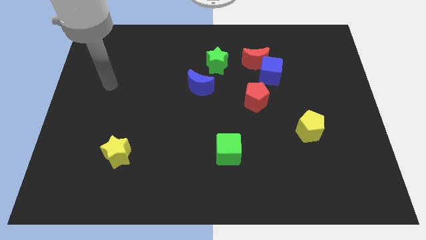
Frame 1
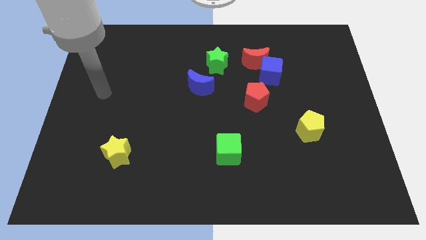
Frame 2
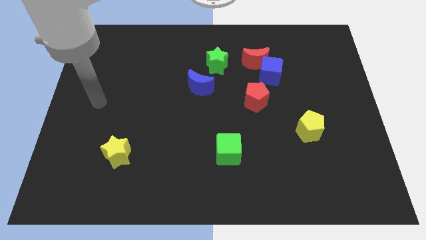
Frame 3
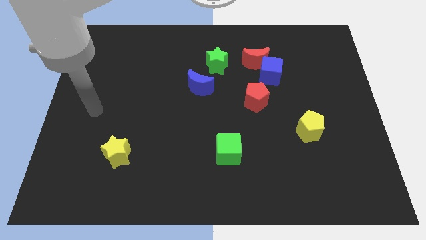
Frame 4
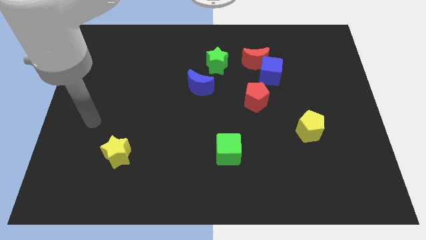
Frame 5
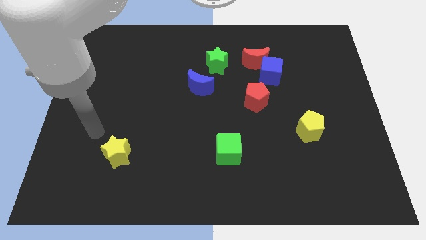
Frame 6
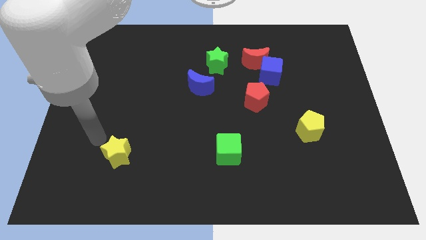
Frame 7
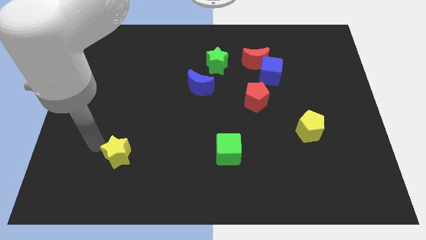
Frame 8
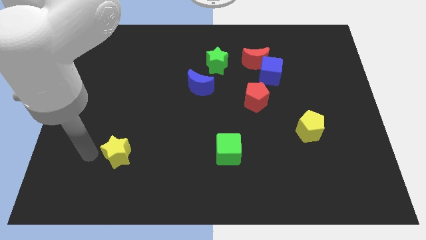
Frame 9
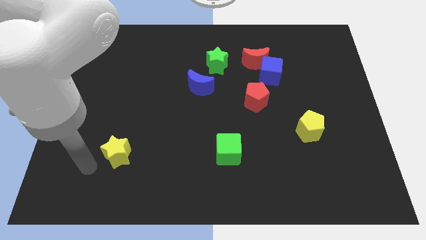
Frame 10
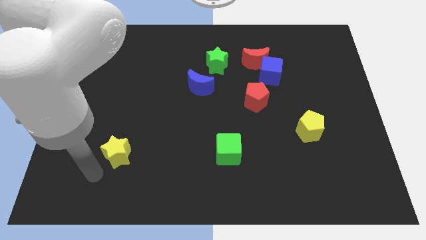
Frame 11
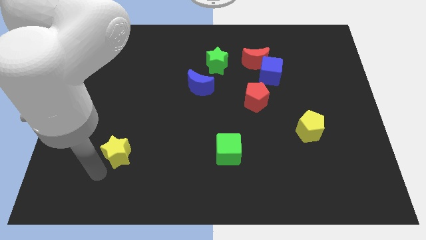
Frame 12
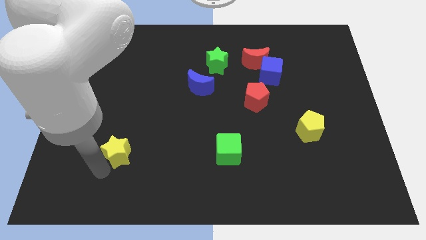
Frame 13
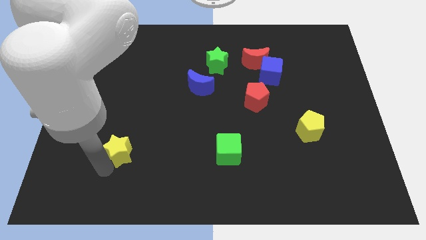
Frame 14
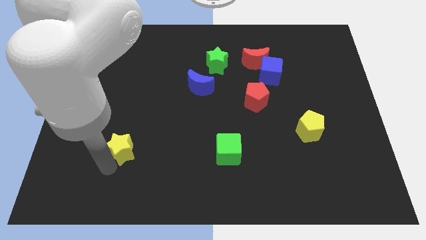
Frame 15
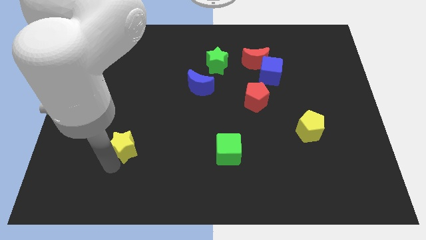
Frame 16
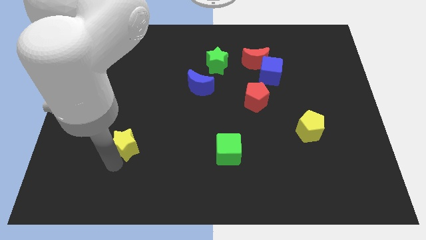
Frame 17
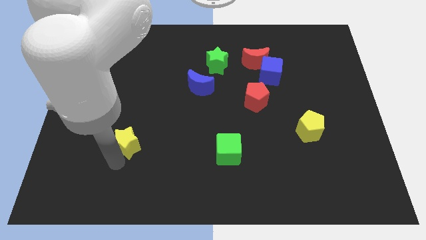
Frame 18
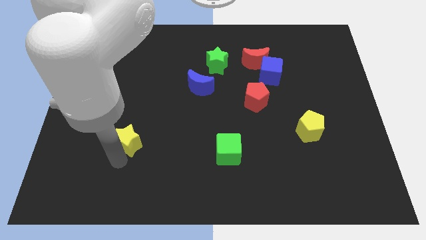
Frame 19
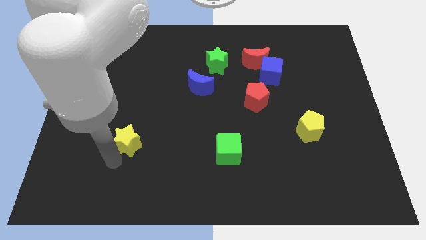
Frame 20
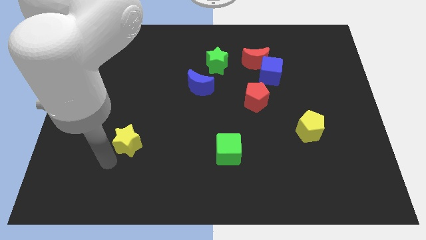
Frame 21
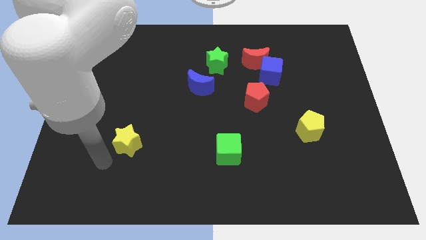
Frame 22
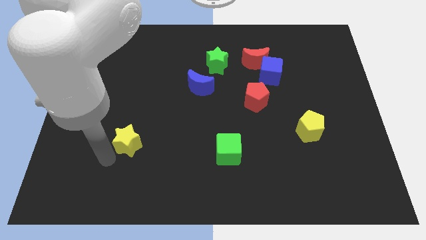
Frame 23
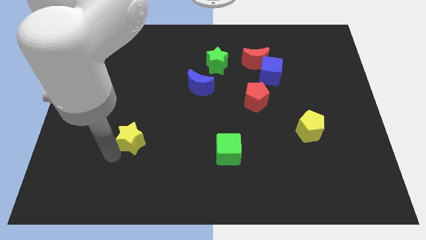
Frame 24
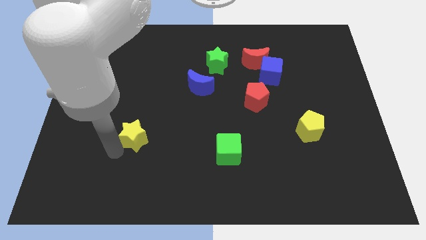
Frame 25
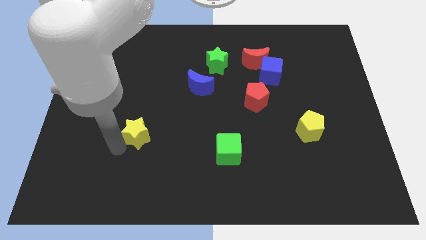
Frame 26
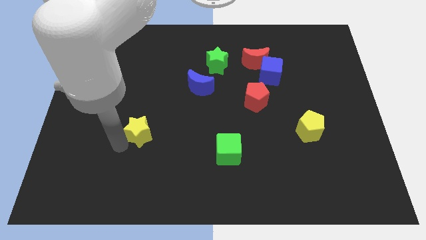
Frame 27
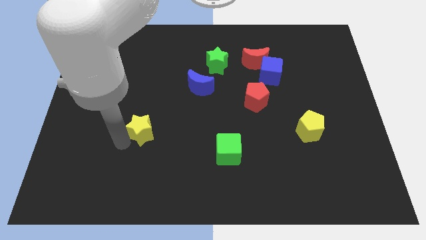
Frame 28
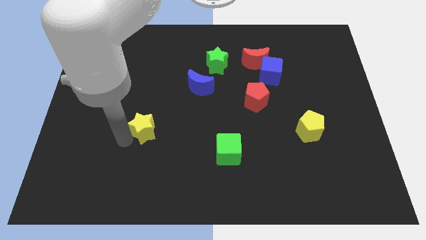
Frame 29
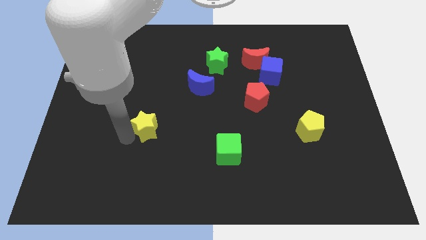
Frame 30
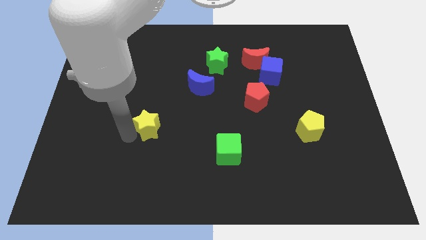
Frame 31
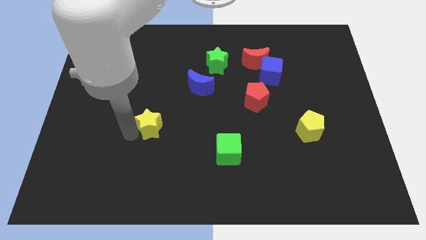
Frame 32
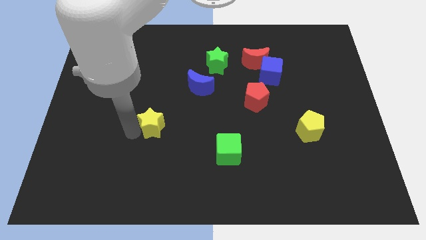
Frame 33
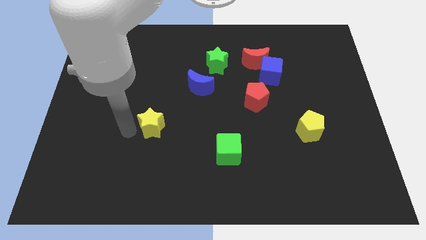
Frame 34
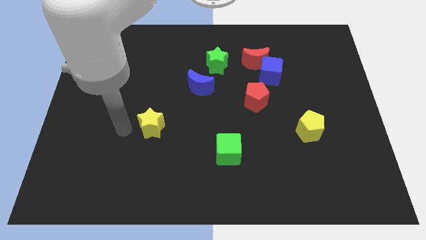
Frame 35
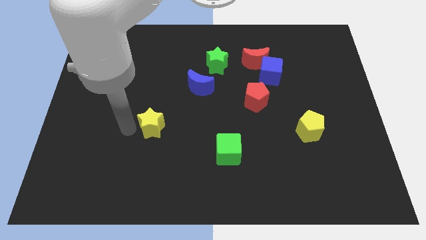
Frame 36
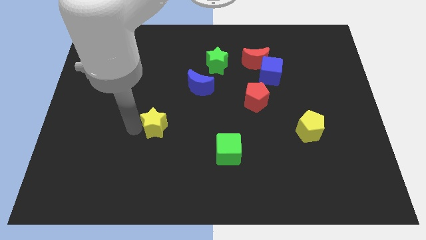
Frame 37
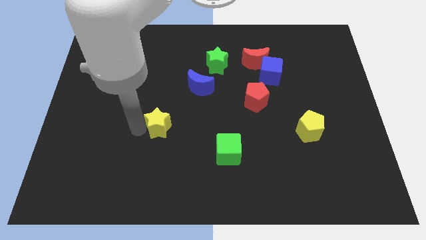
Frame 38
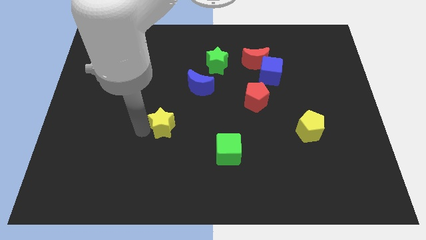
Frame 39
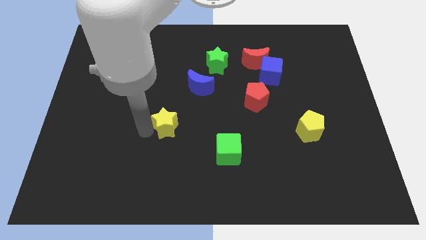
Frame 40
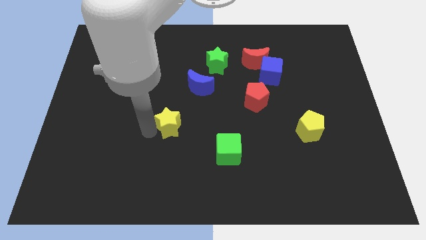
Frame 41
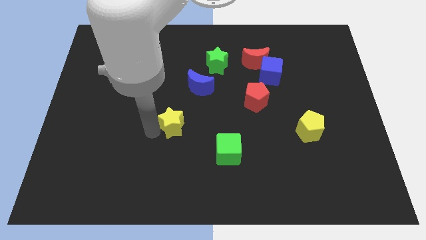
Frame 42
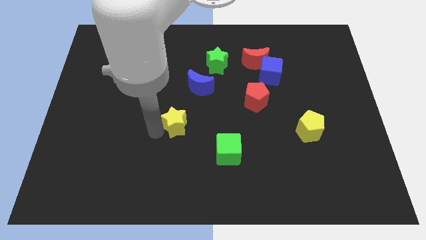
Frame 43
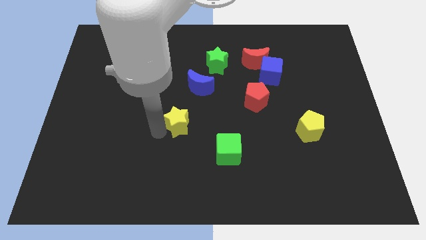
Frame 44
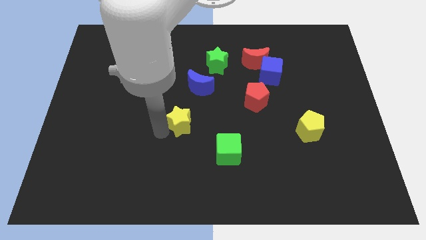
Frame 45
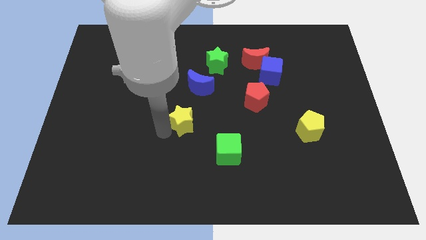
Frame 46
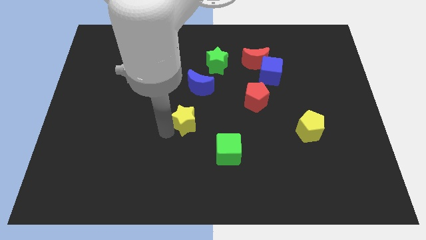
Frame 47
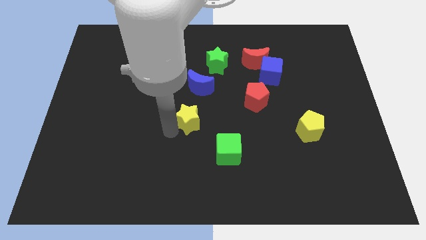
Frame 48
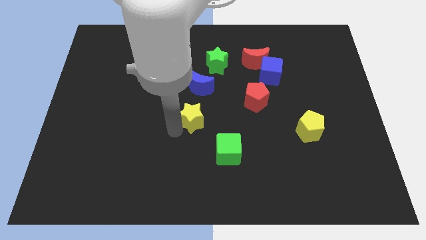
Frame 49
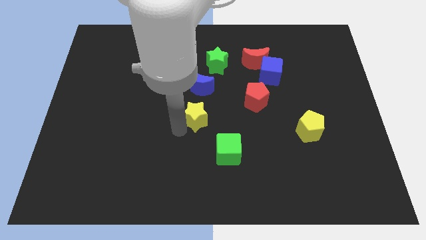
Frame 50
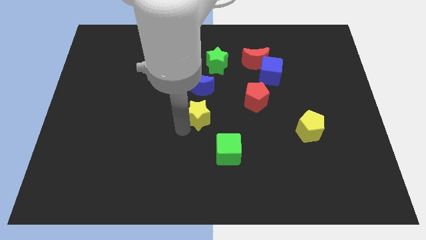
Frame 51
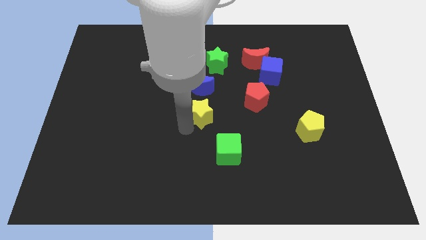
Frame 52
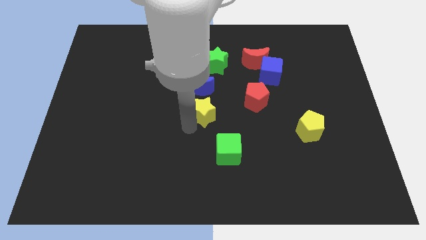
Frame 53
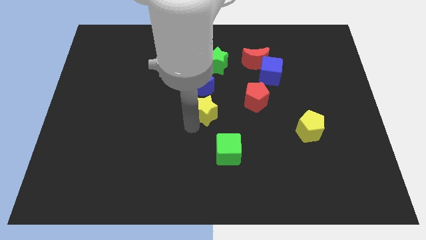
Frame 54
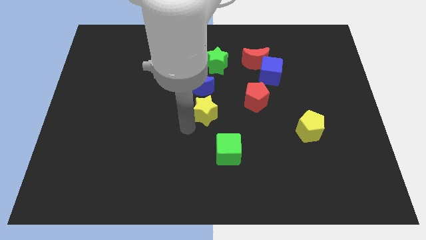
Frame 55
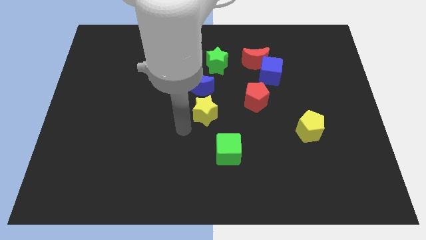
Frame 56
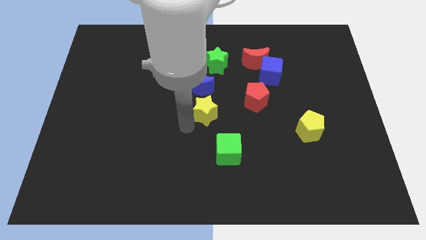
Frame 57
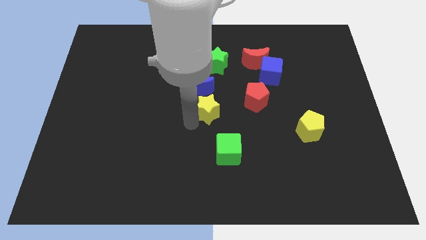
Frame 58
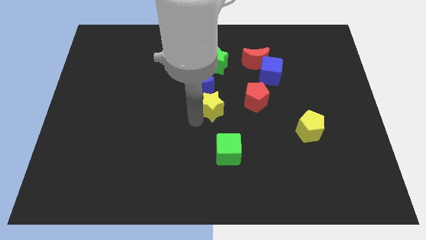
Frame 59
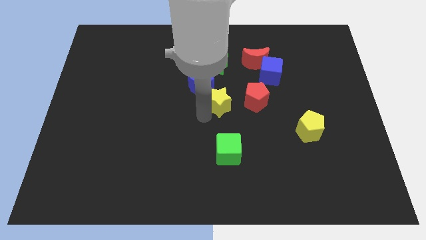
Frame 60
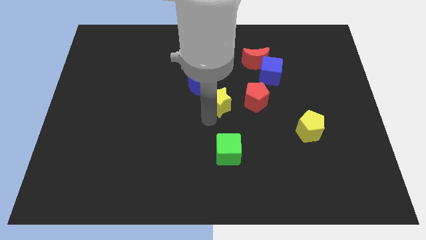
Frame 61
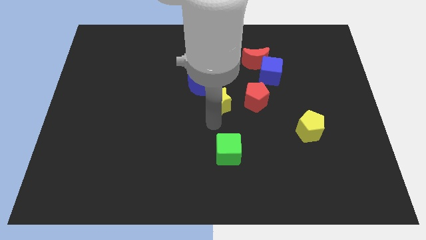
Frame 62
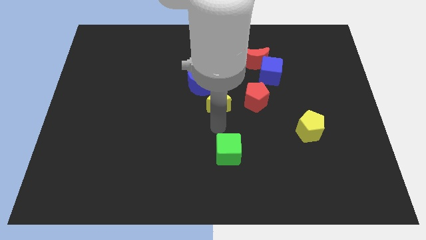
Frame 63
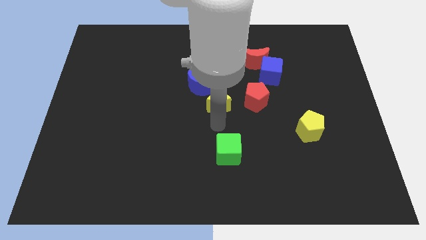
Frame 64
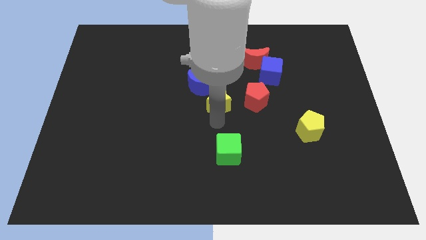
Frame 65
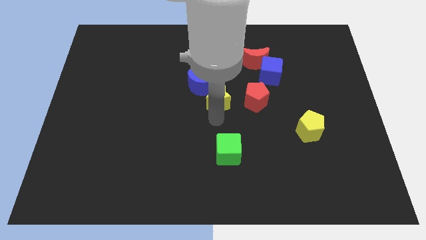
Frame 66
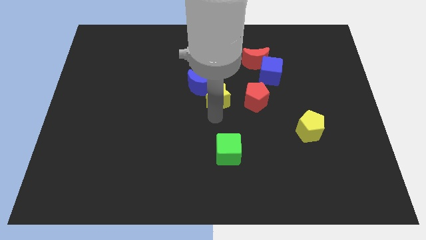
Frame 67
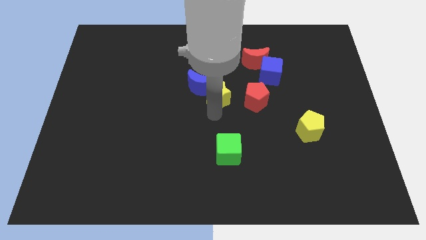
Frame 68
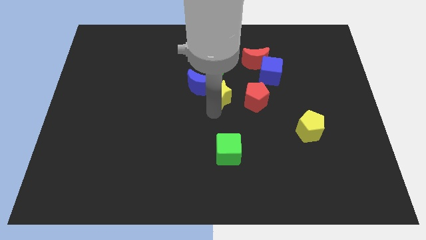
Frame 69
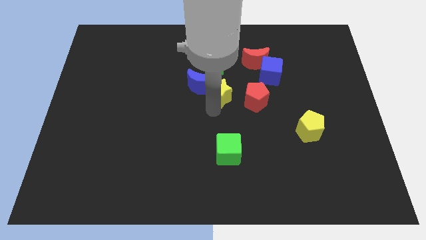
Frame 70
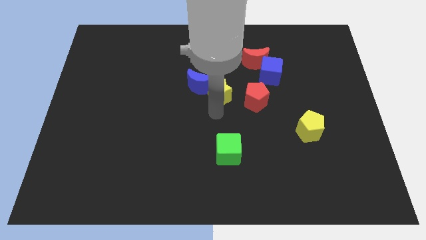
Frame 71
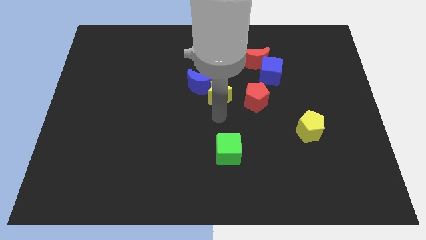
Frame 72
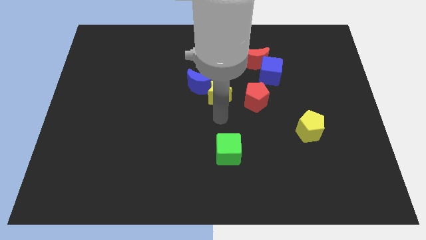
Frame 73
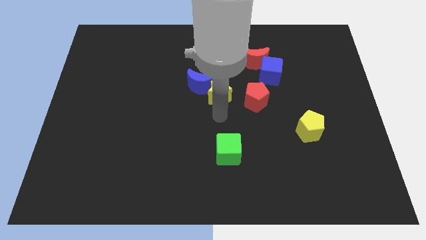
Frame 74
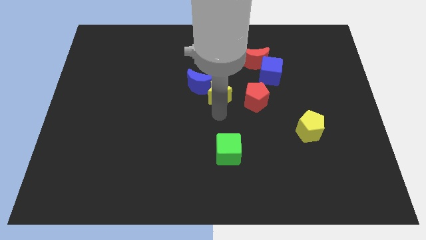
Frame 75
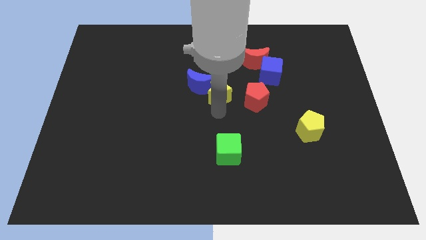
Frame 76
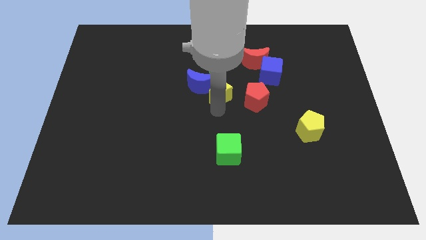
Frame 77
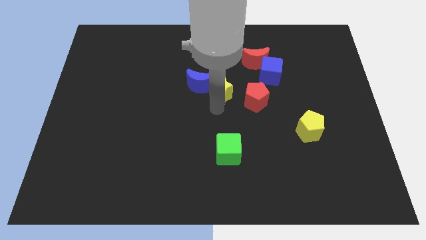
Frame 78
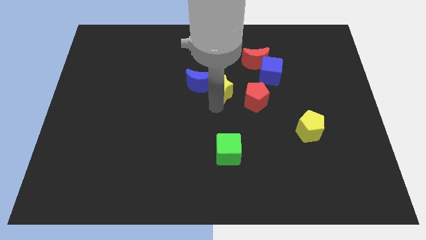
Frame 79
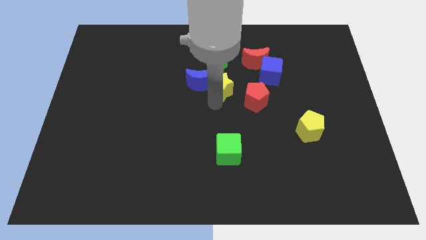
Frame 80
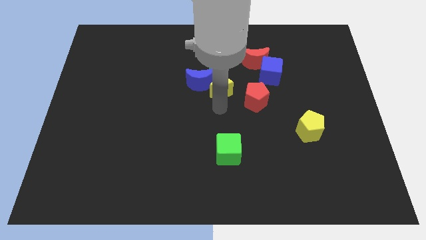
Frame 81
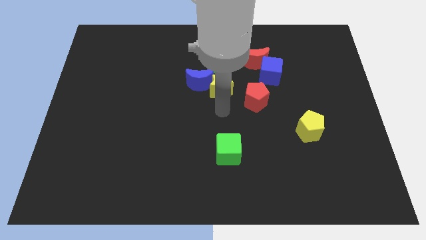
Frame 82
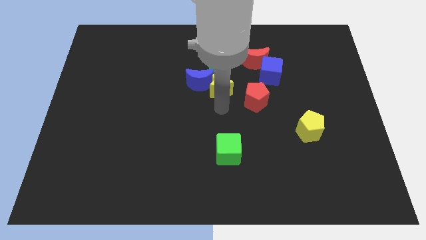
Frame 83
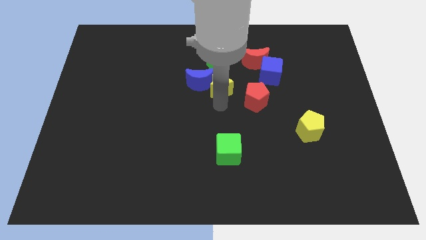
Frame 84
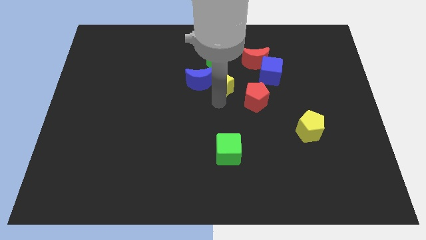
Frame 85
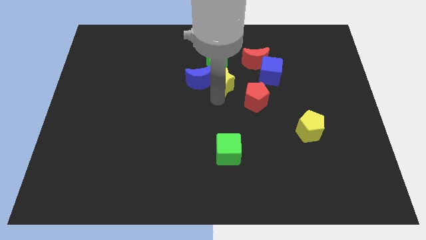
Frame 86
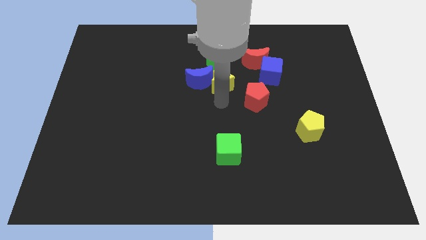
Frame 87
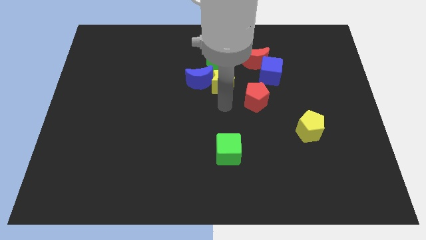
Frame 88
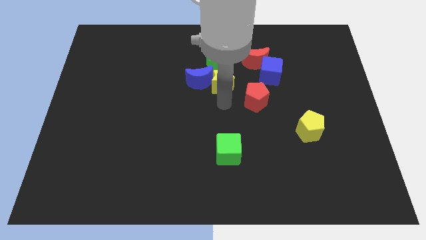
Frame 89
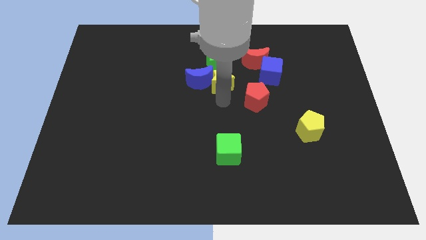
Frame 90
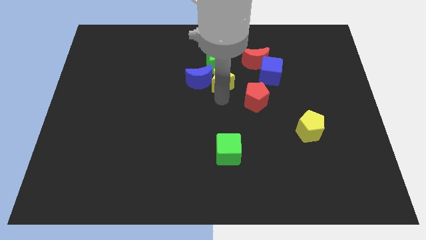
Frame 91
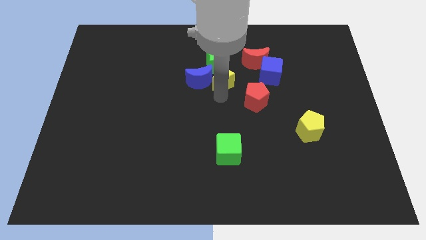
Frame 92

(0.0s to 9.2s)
slide the yellow star to the green star
